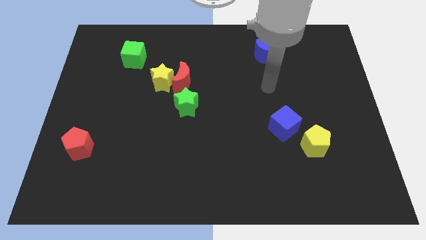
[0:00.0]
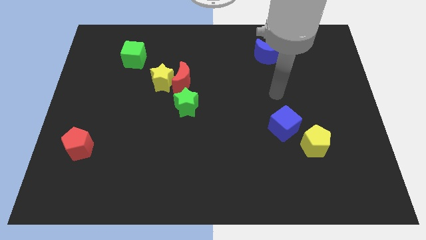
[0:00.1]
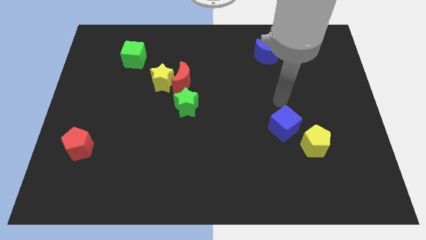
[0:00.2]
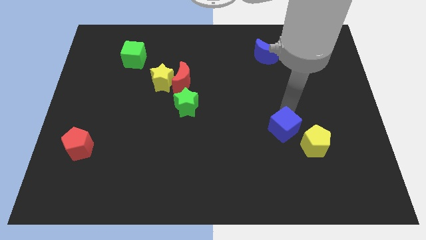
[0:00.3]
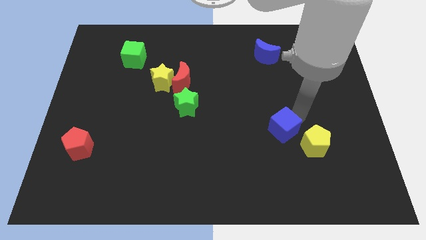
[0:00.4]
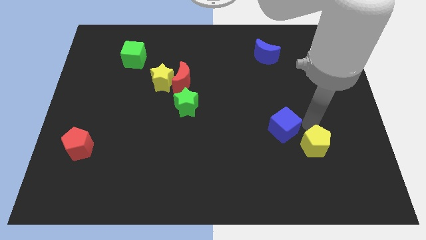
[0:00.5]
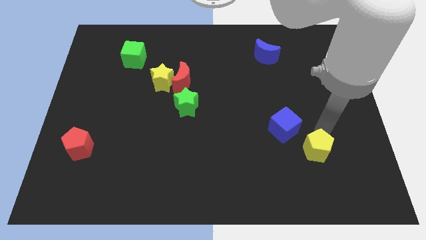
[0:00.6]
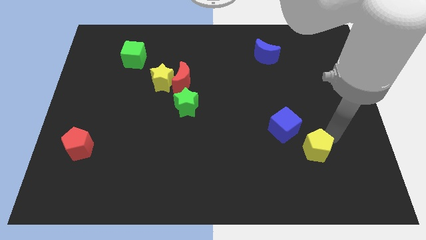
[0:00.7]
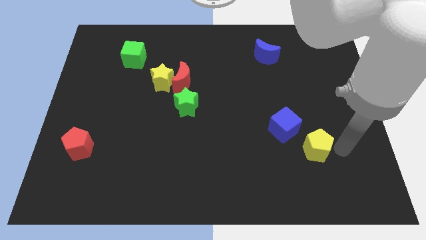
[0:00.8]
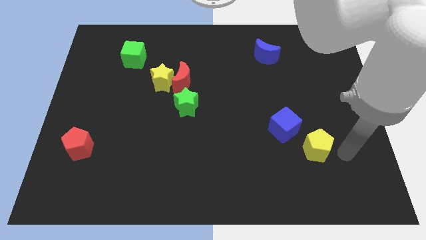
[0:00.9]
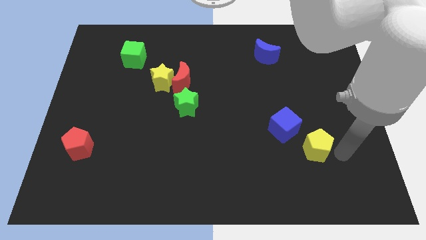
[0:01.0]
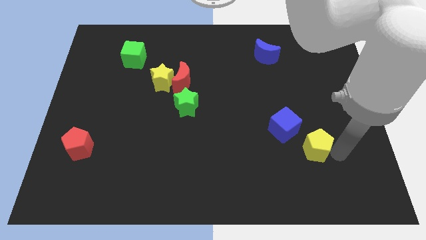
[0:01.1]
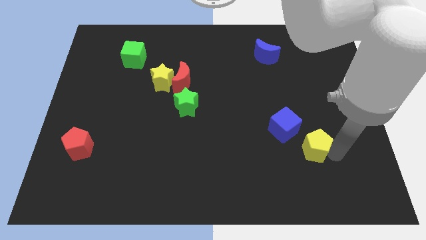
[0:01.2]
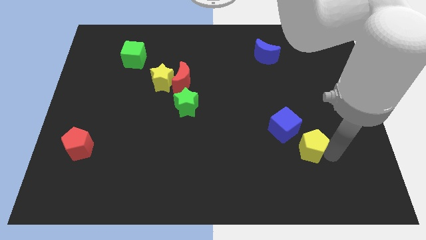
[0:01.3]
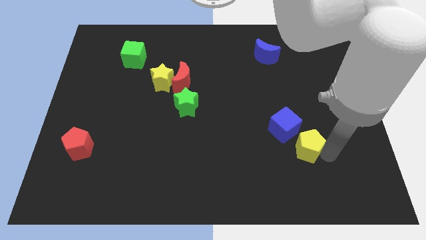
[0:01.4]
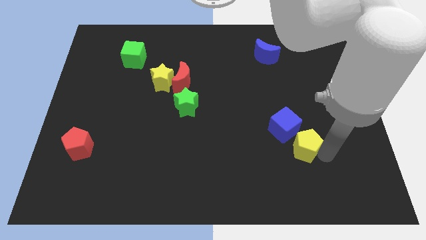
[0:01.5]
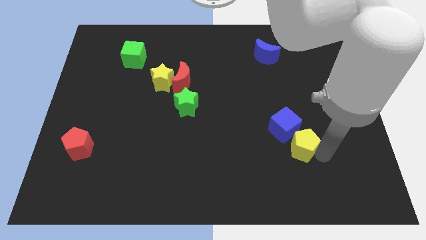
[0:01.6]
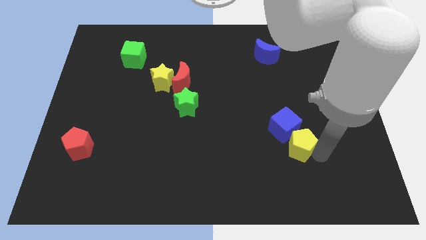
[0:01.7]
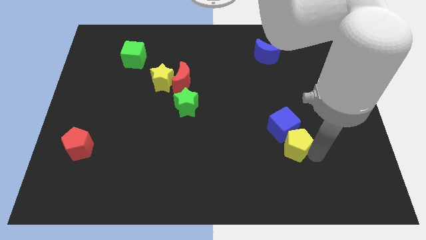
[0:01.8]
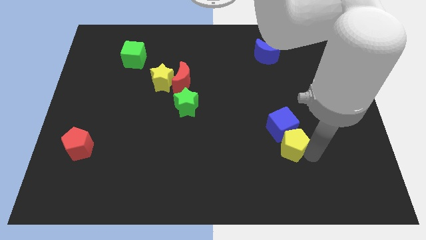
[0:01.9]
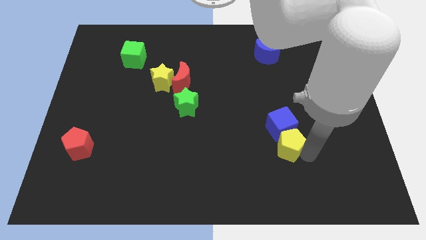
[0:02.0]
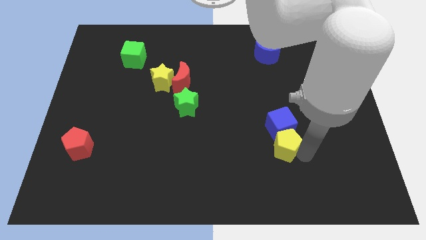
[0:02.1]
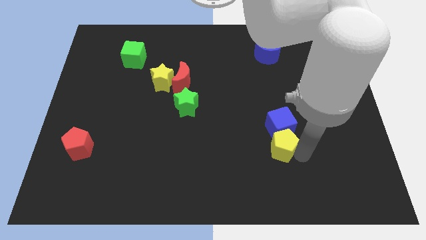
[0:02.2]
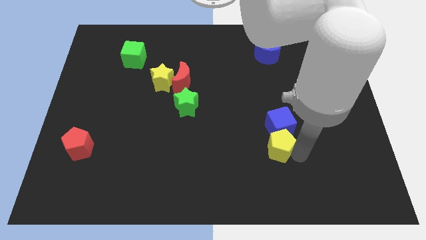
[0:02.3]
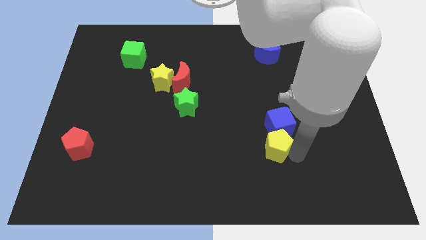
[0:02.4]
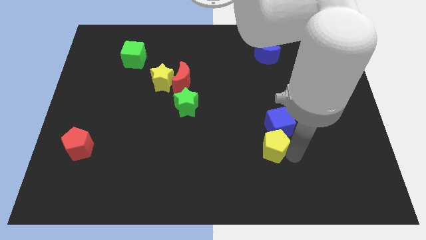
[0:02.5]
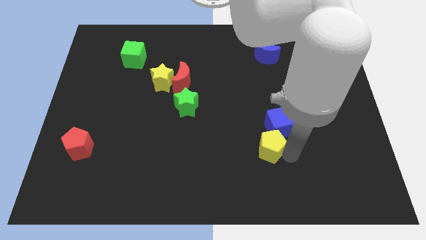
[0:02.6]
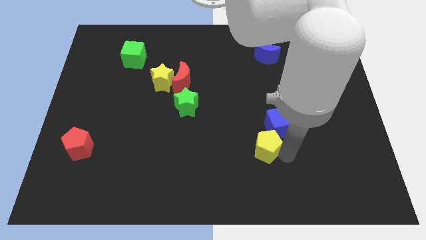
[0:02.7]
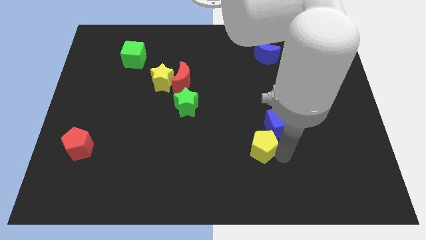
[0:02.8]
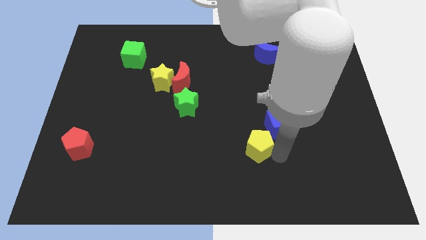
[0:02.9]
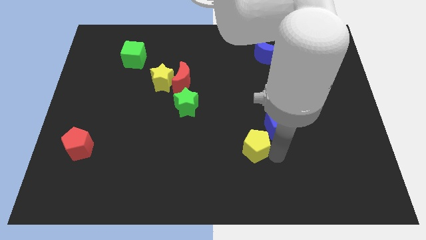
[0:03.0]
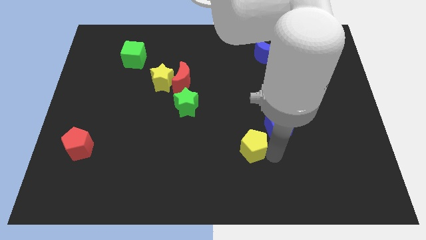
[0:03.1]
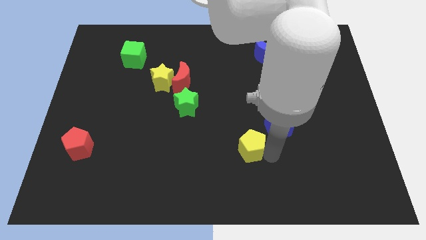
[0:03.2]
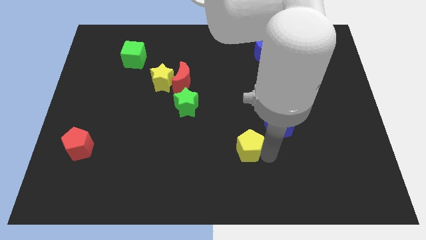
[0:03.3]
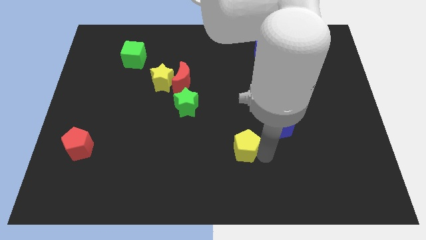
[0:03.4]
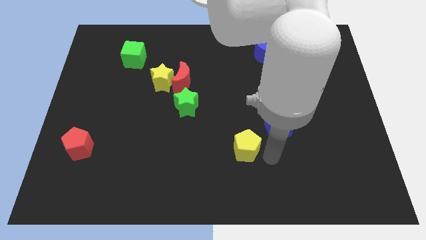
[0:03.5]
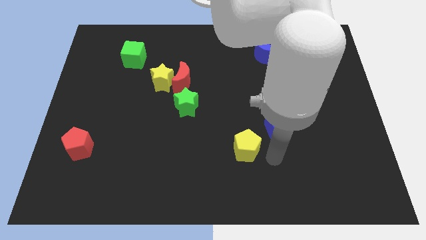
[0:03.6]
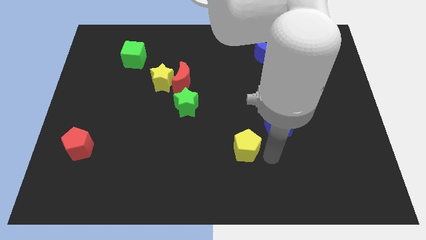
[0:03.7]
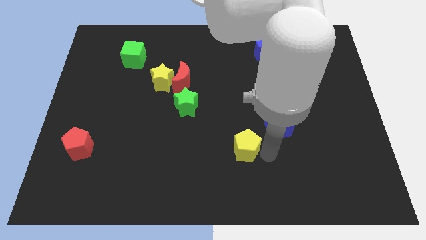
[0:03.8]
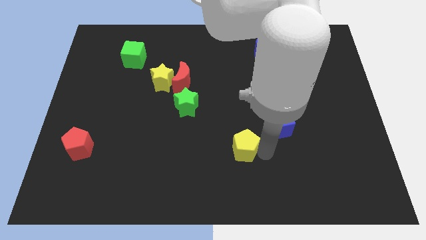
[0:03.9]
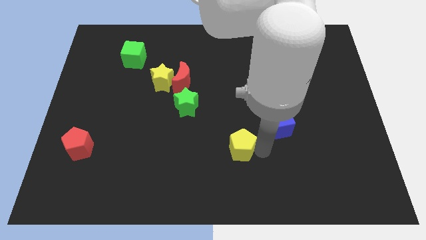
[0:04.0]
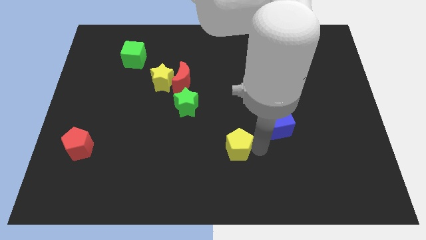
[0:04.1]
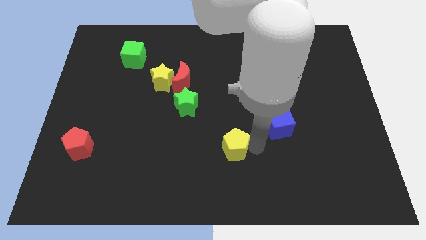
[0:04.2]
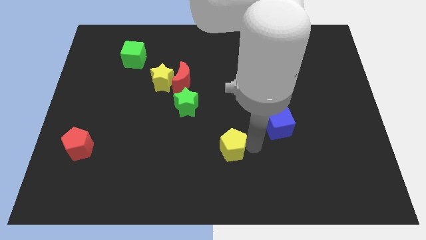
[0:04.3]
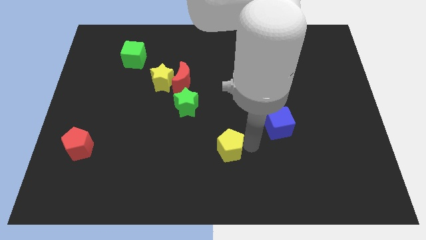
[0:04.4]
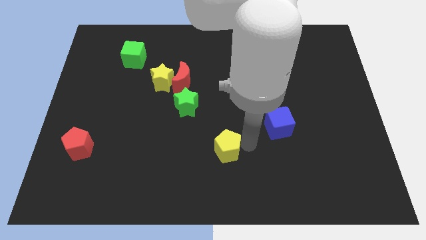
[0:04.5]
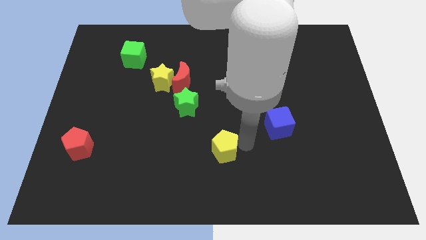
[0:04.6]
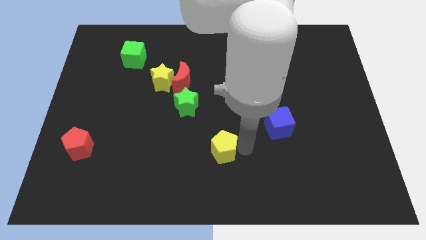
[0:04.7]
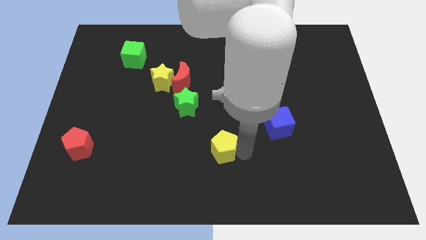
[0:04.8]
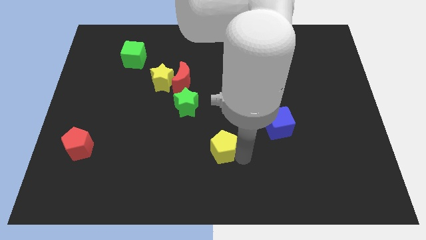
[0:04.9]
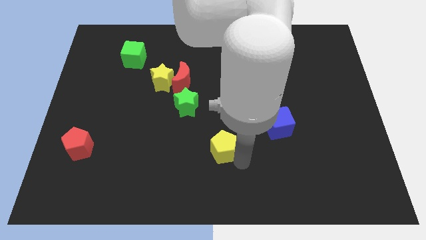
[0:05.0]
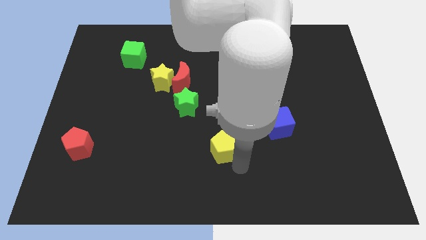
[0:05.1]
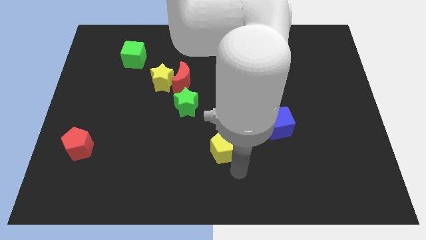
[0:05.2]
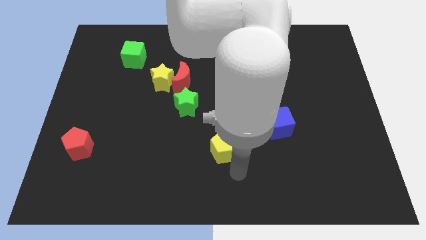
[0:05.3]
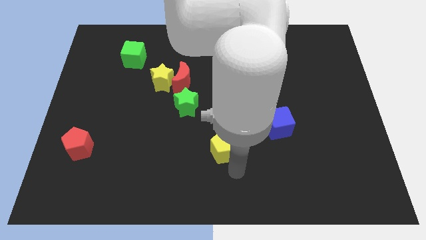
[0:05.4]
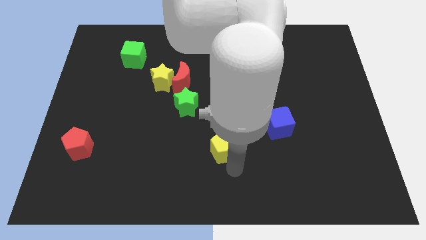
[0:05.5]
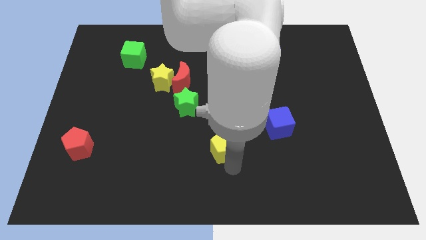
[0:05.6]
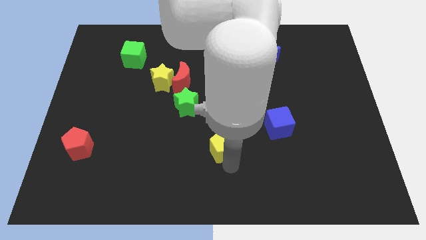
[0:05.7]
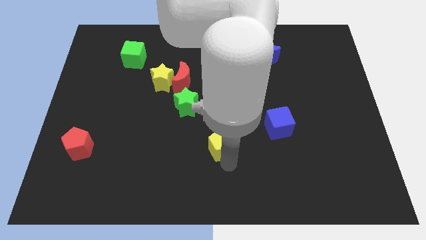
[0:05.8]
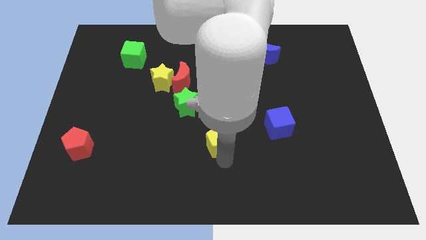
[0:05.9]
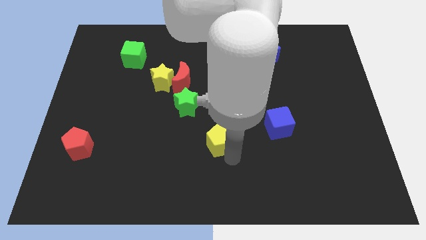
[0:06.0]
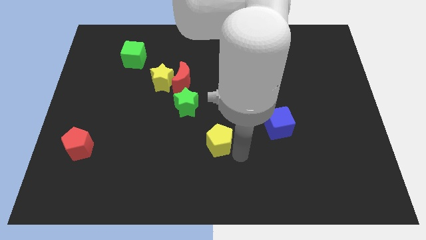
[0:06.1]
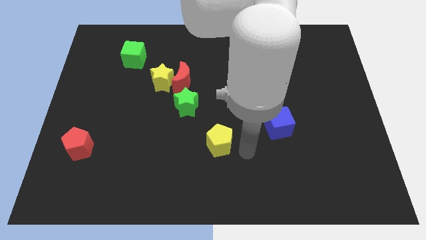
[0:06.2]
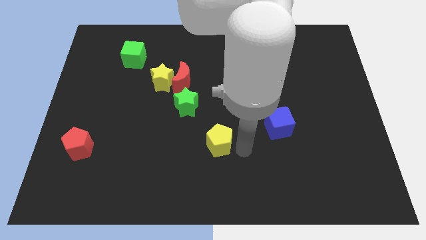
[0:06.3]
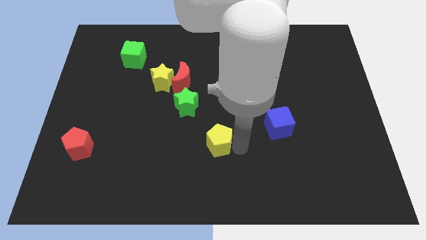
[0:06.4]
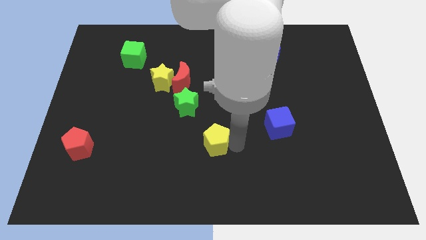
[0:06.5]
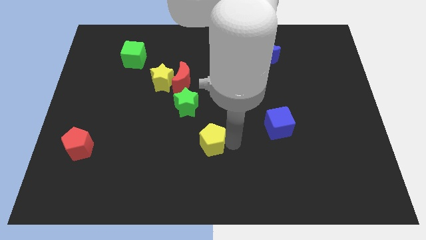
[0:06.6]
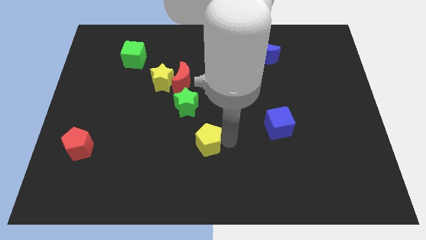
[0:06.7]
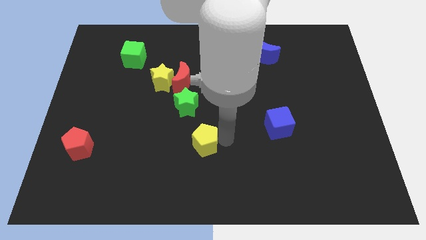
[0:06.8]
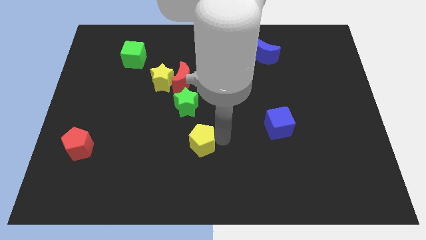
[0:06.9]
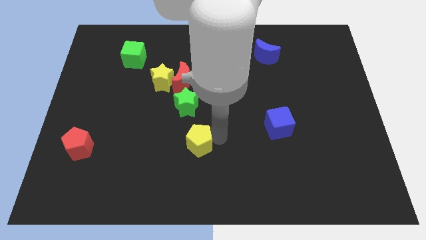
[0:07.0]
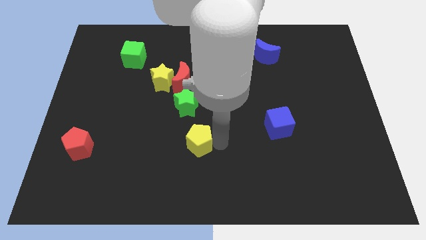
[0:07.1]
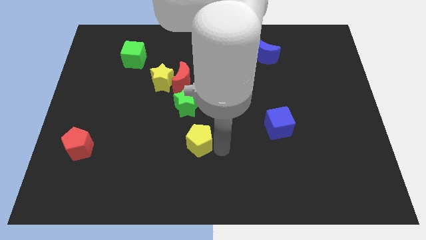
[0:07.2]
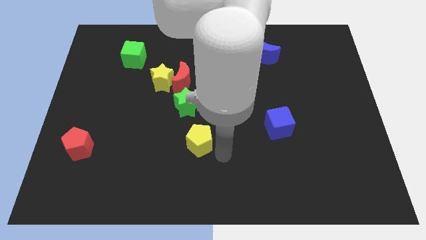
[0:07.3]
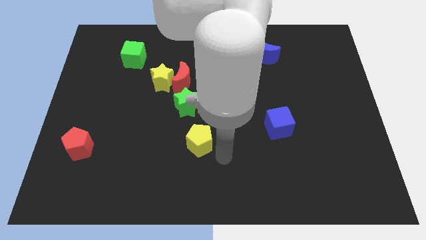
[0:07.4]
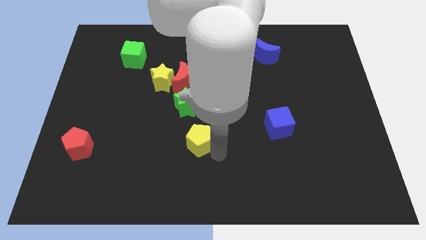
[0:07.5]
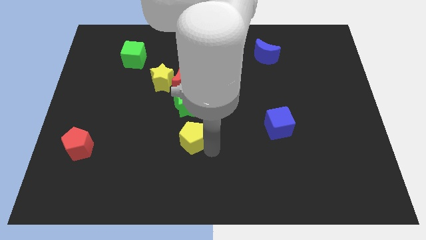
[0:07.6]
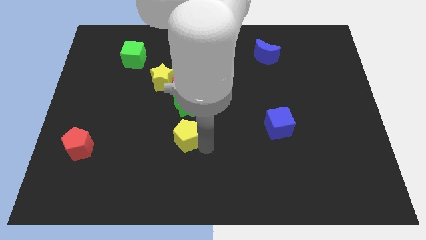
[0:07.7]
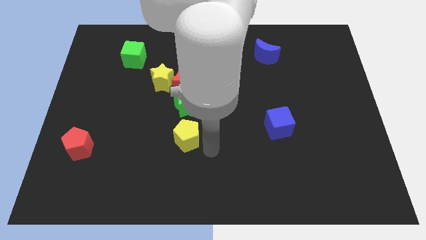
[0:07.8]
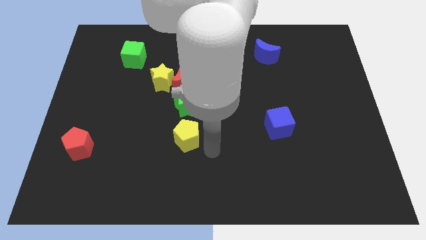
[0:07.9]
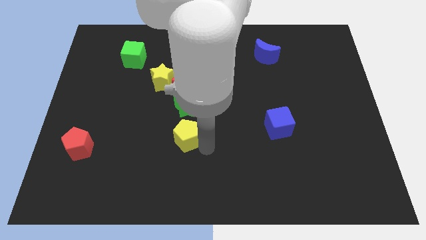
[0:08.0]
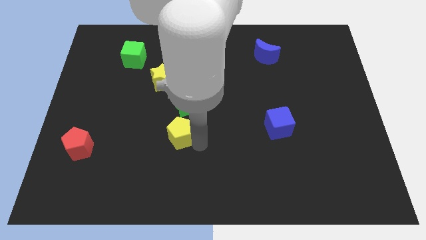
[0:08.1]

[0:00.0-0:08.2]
move the yellow pentagon to the bottom left side of the green star
